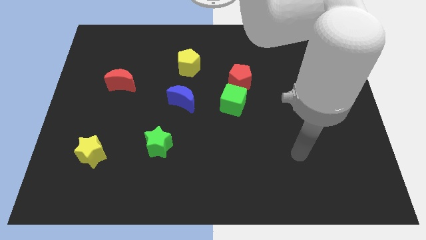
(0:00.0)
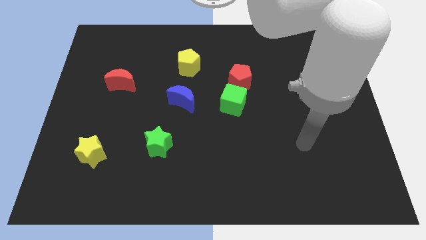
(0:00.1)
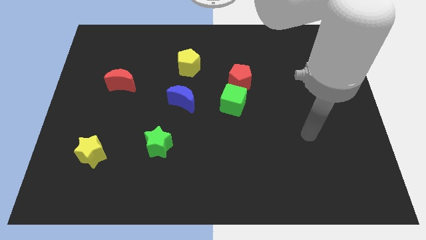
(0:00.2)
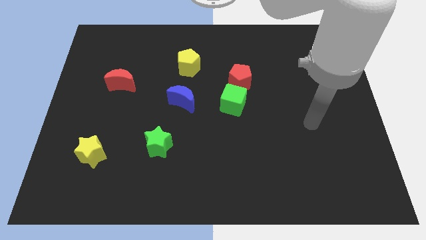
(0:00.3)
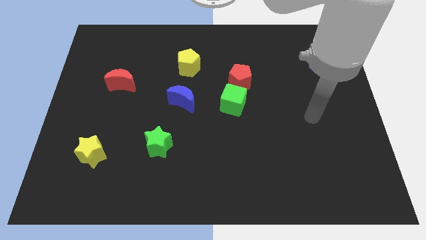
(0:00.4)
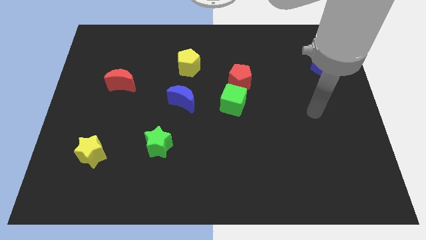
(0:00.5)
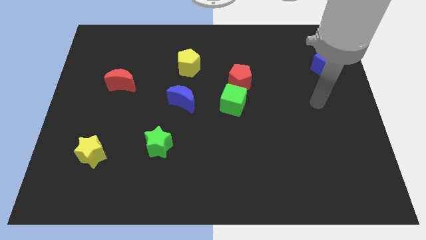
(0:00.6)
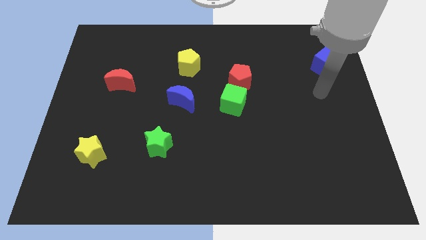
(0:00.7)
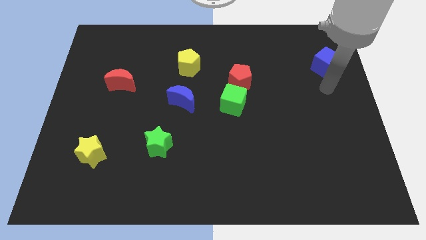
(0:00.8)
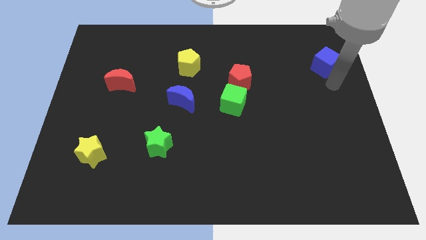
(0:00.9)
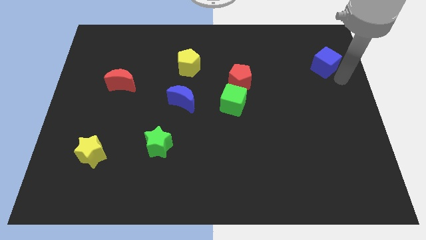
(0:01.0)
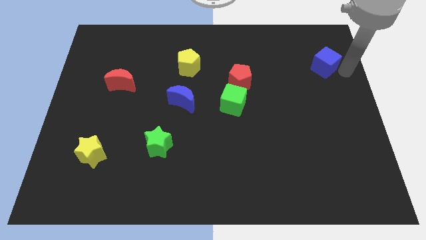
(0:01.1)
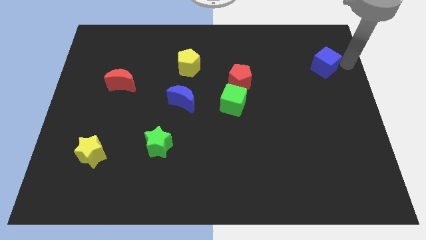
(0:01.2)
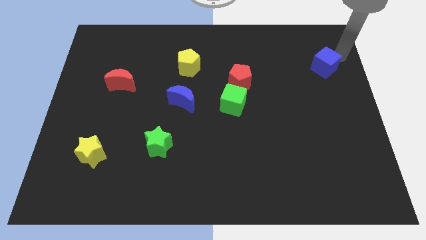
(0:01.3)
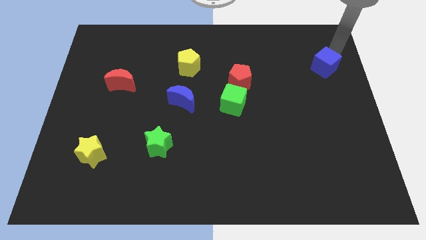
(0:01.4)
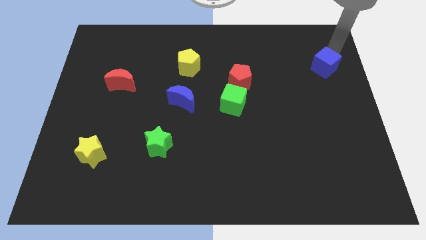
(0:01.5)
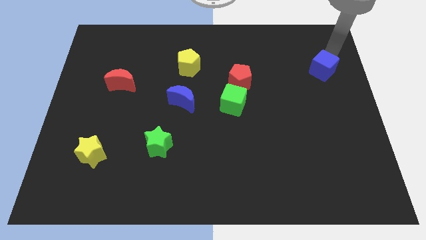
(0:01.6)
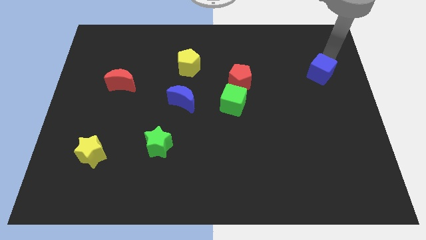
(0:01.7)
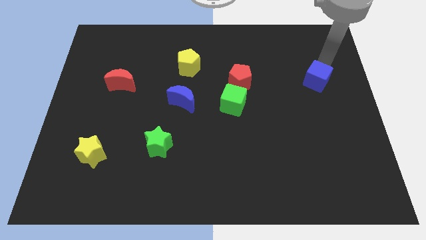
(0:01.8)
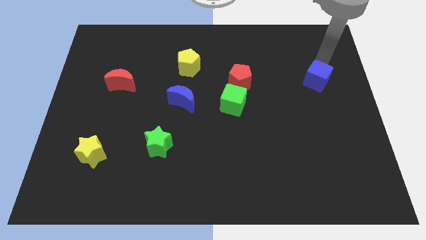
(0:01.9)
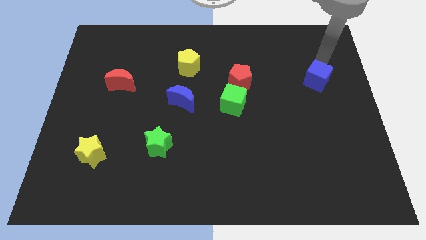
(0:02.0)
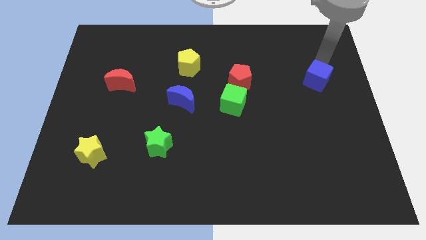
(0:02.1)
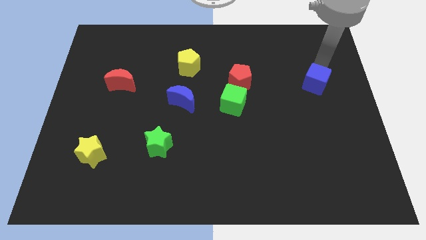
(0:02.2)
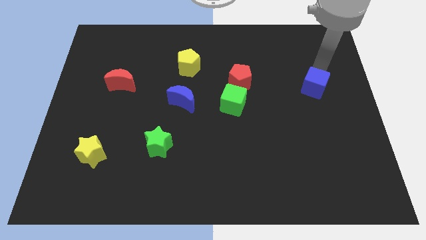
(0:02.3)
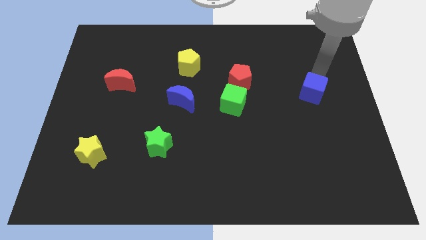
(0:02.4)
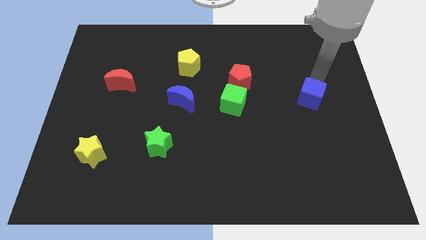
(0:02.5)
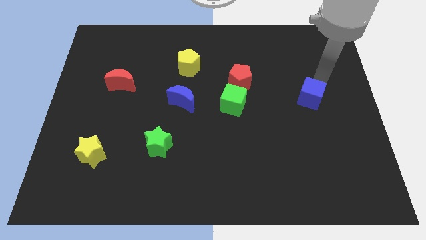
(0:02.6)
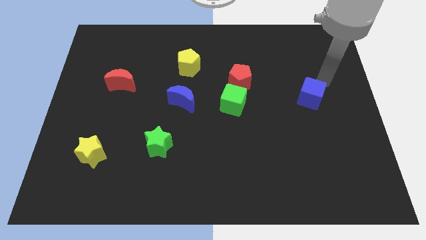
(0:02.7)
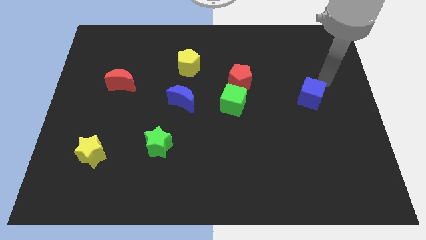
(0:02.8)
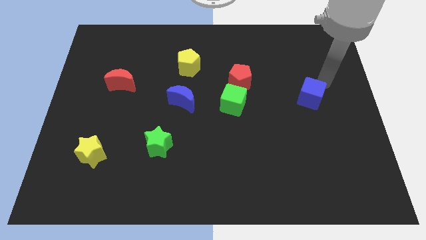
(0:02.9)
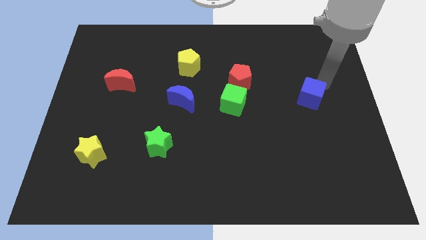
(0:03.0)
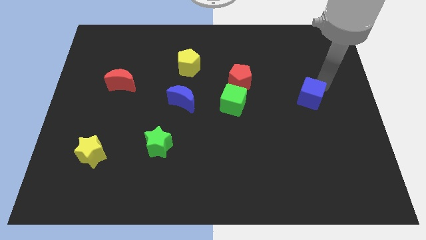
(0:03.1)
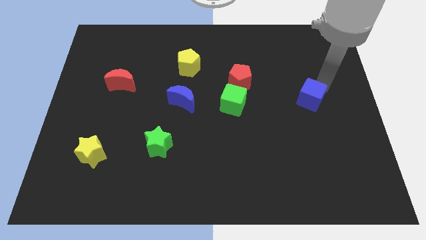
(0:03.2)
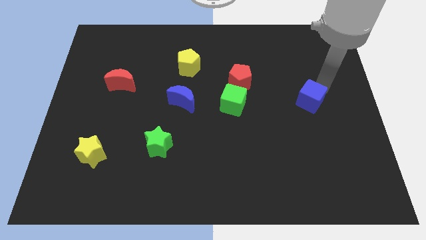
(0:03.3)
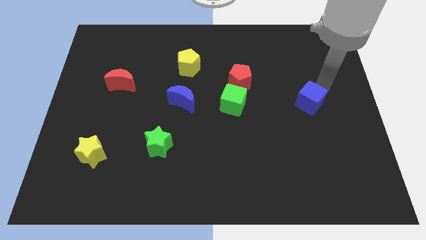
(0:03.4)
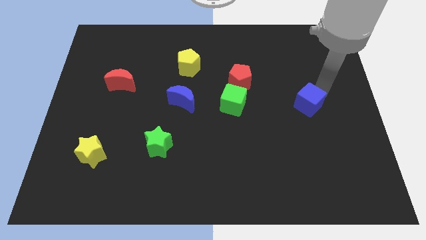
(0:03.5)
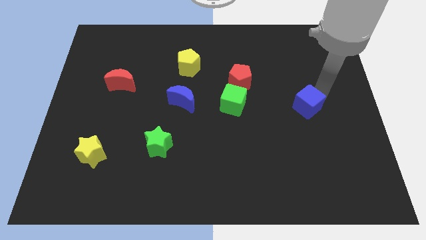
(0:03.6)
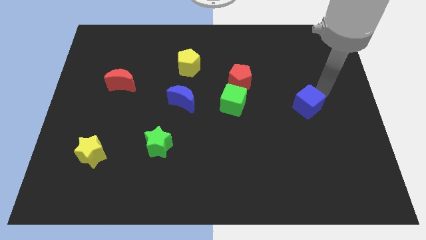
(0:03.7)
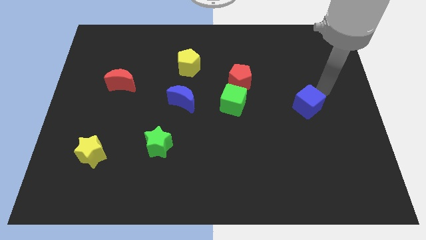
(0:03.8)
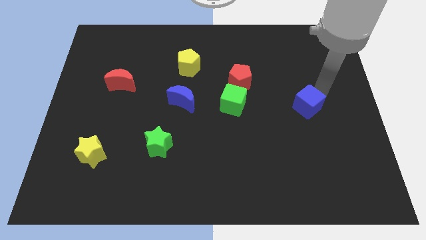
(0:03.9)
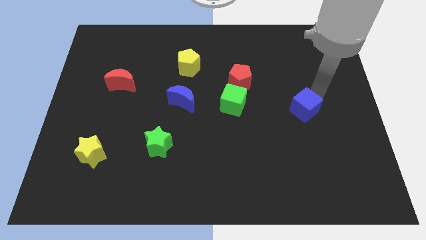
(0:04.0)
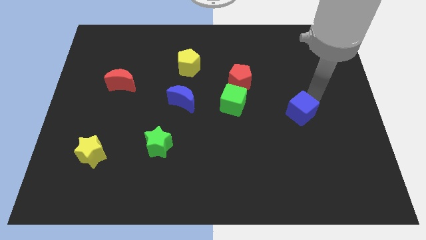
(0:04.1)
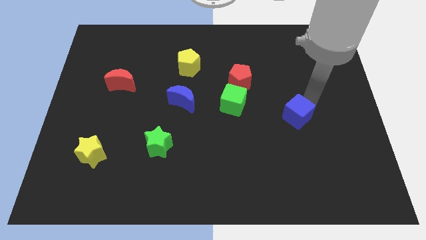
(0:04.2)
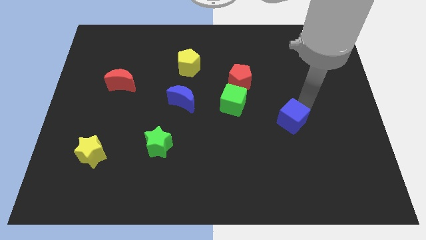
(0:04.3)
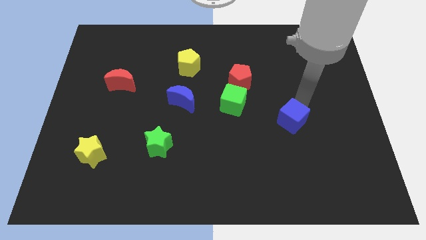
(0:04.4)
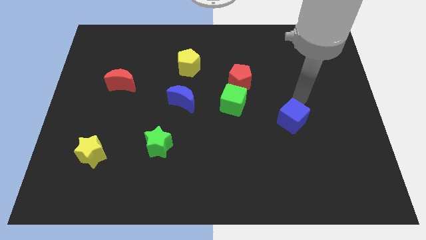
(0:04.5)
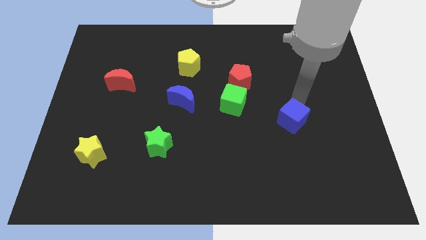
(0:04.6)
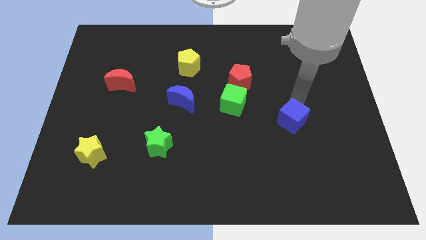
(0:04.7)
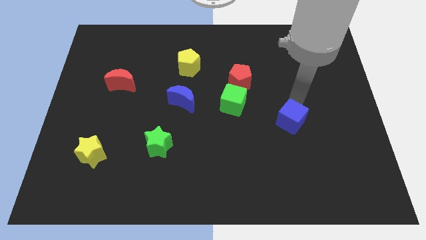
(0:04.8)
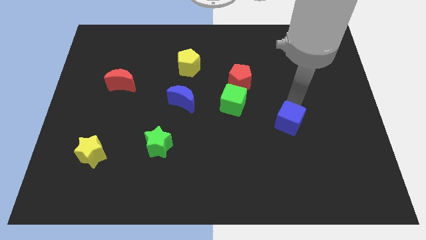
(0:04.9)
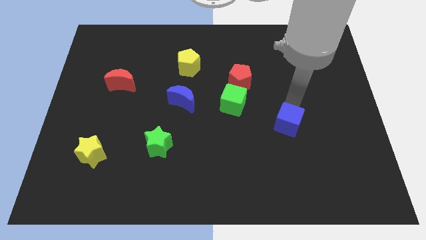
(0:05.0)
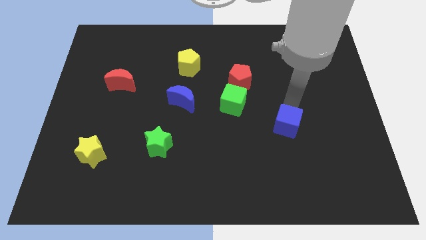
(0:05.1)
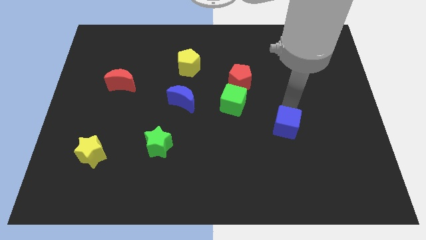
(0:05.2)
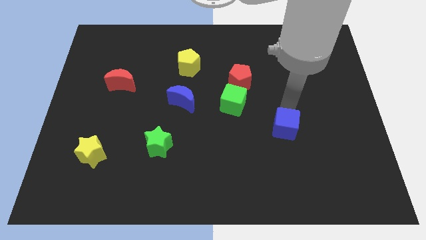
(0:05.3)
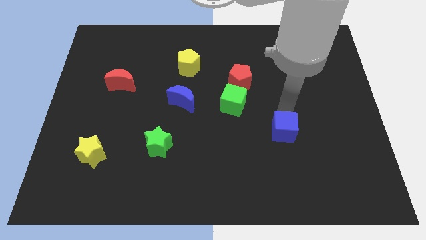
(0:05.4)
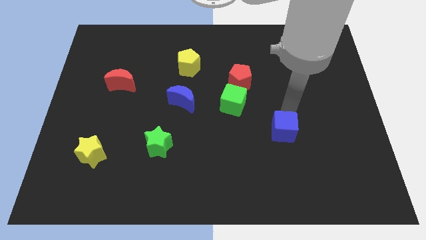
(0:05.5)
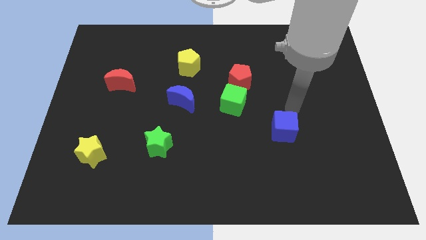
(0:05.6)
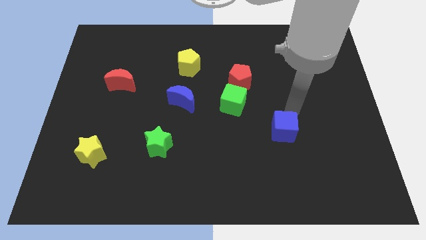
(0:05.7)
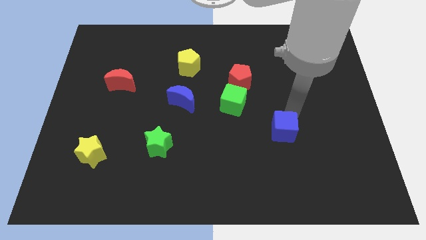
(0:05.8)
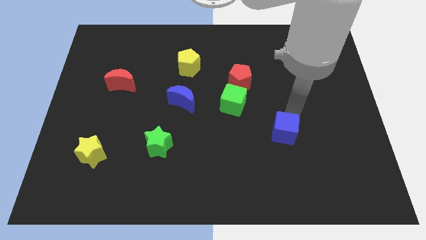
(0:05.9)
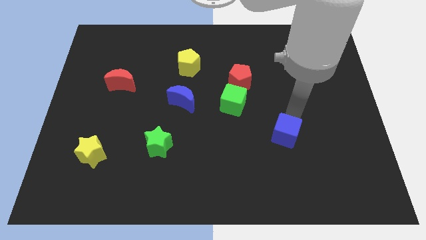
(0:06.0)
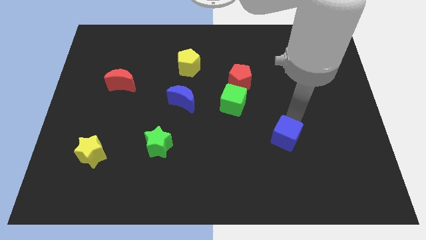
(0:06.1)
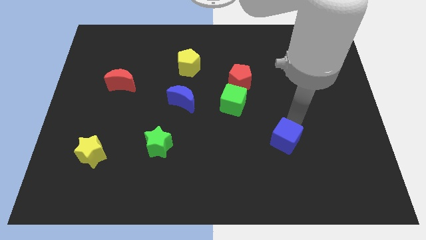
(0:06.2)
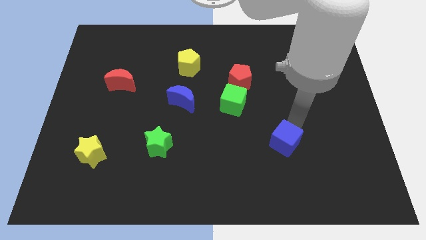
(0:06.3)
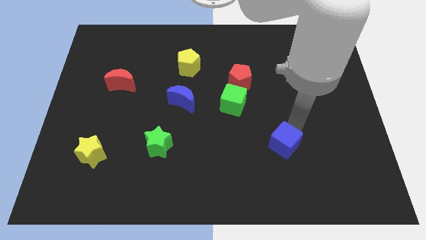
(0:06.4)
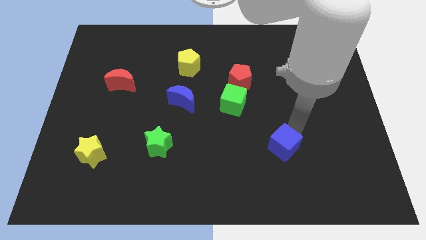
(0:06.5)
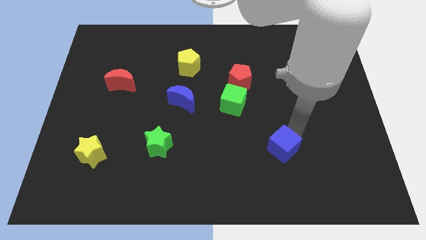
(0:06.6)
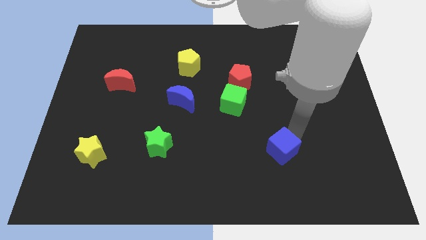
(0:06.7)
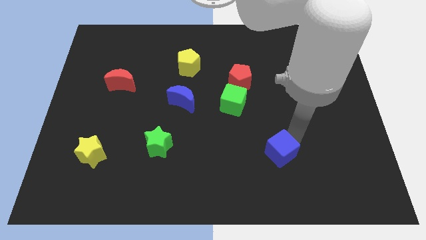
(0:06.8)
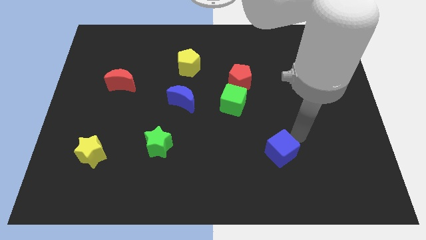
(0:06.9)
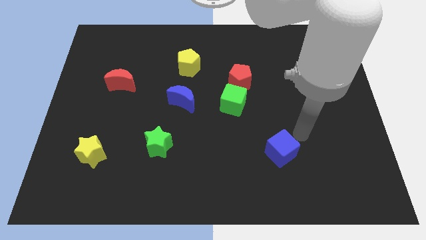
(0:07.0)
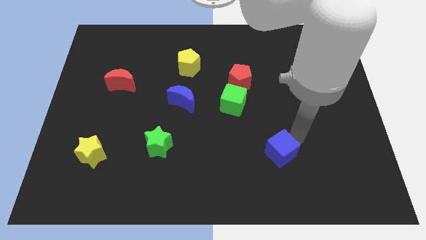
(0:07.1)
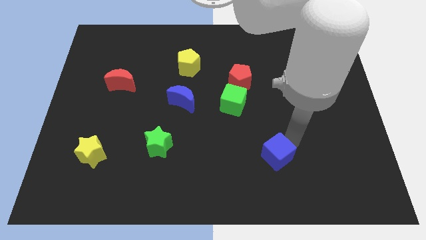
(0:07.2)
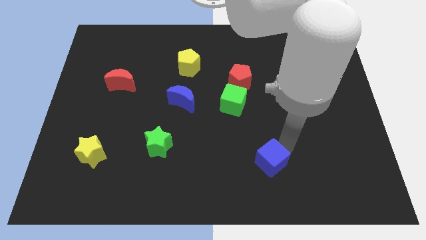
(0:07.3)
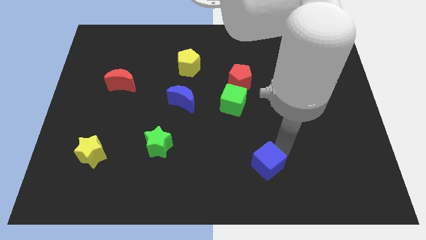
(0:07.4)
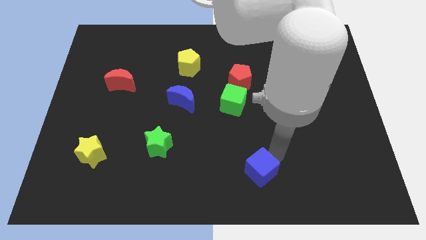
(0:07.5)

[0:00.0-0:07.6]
put the blue cube to the bottom
